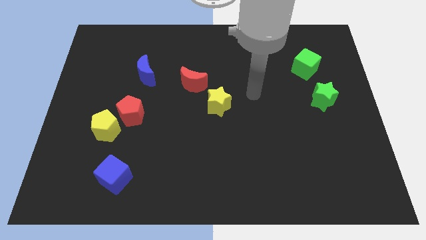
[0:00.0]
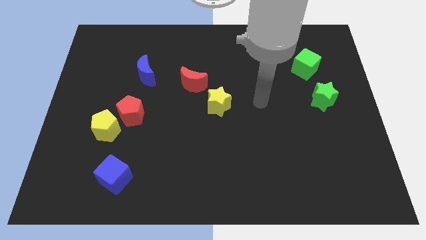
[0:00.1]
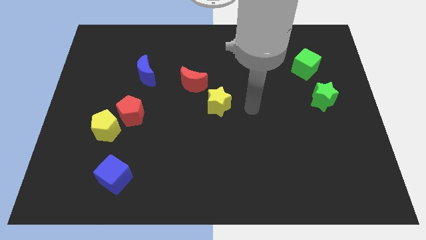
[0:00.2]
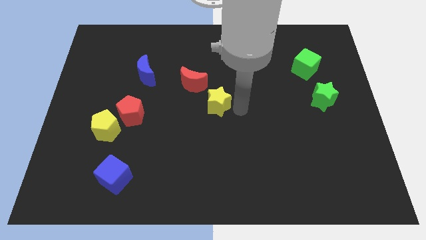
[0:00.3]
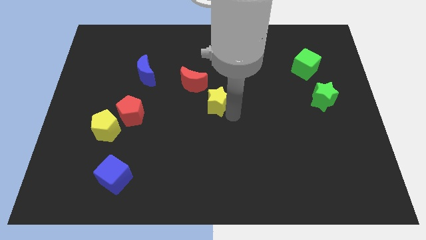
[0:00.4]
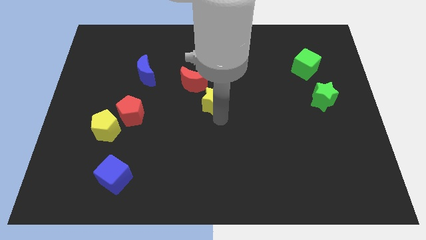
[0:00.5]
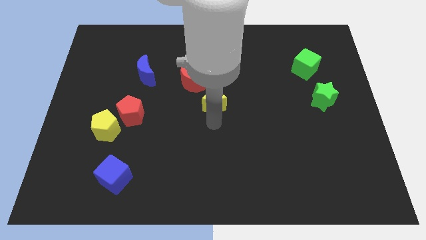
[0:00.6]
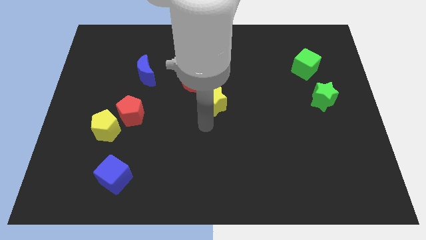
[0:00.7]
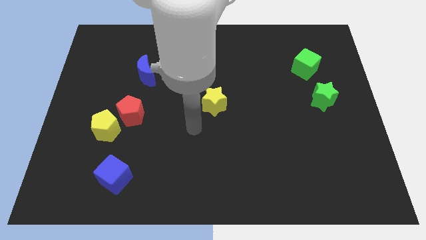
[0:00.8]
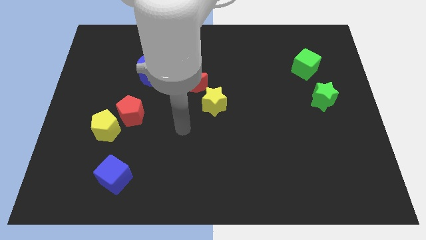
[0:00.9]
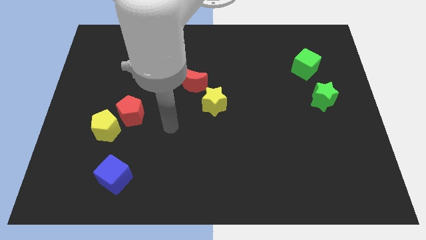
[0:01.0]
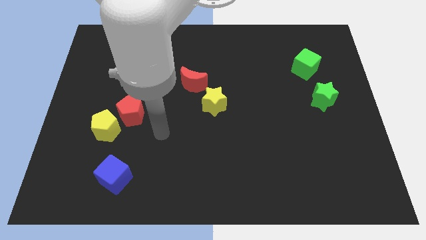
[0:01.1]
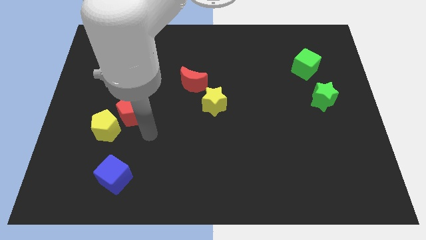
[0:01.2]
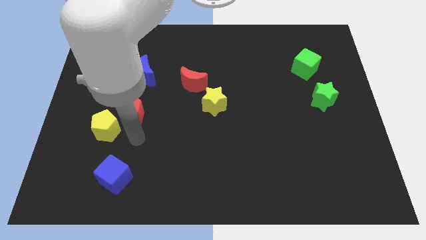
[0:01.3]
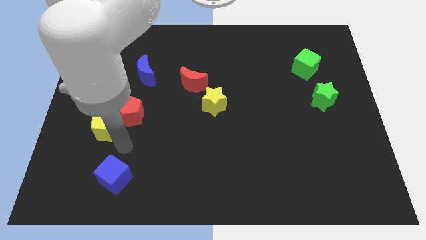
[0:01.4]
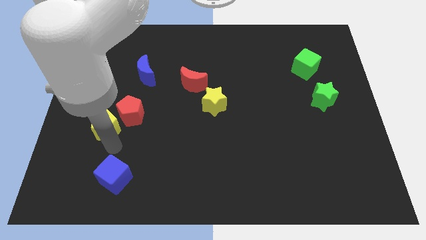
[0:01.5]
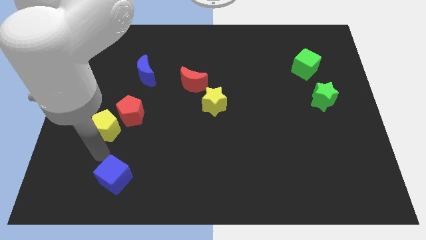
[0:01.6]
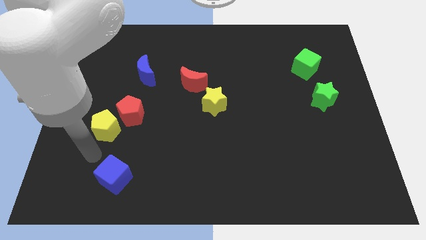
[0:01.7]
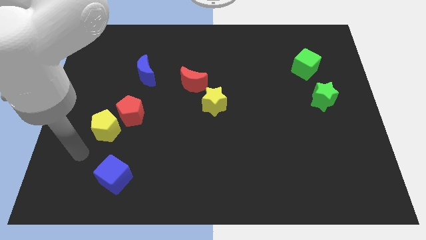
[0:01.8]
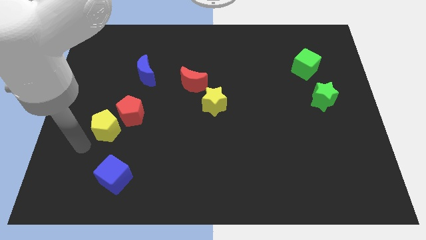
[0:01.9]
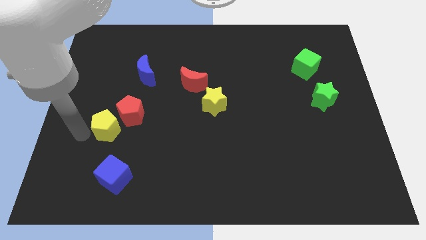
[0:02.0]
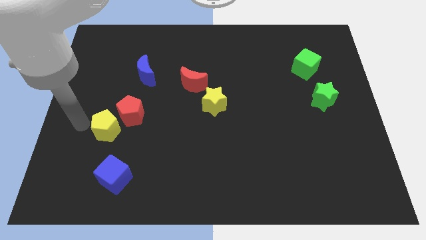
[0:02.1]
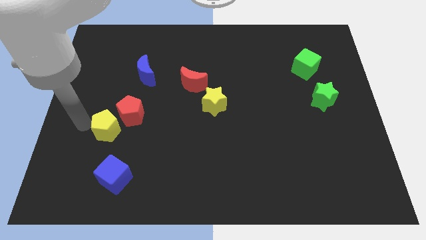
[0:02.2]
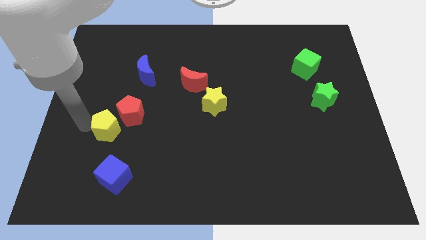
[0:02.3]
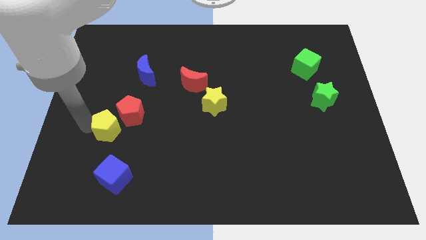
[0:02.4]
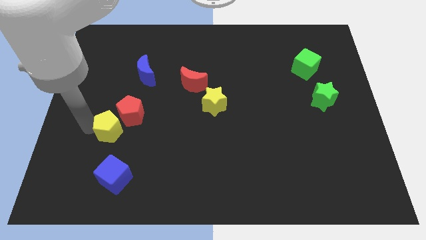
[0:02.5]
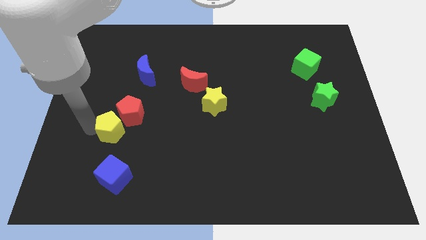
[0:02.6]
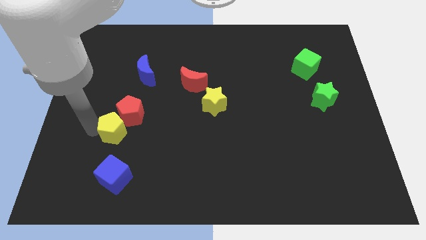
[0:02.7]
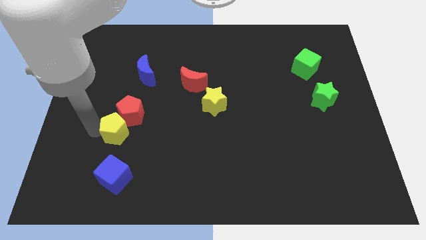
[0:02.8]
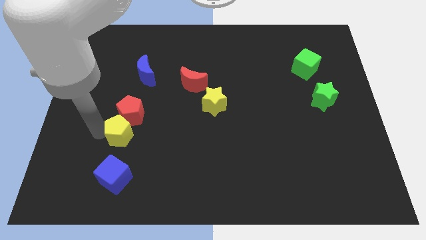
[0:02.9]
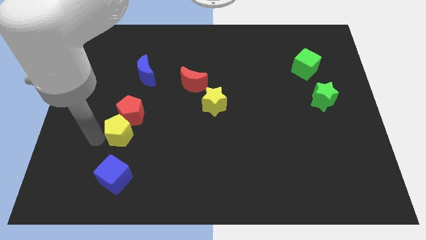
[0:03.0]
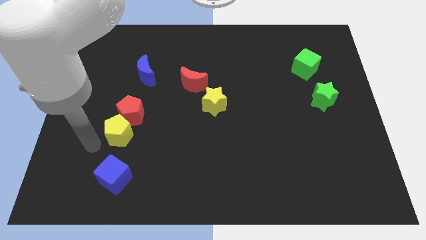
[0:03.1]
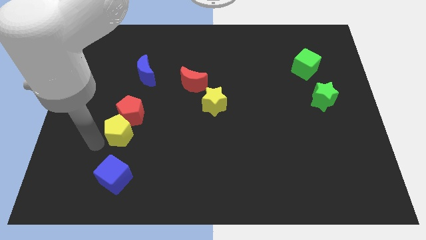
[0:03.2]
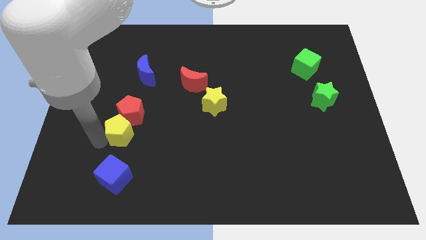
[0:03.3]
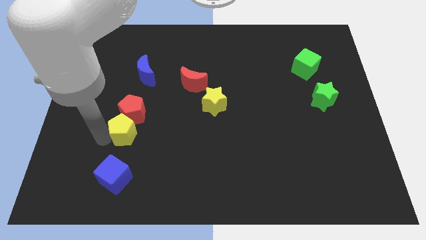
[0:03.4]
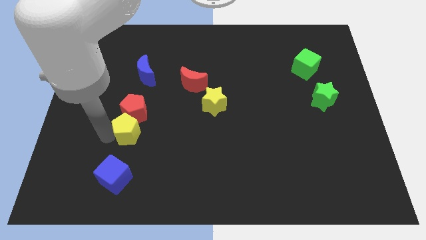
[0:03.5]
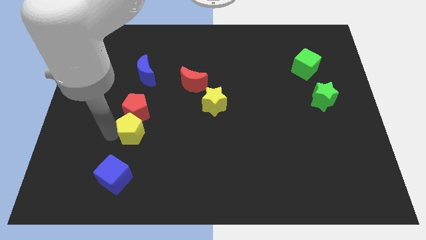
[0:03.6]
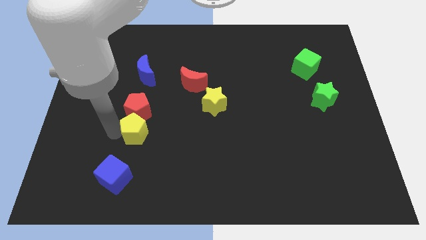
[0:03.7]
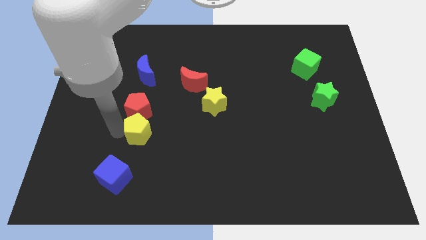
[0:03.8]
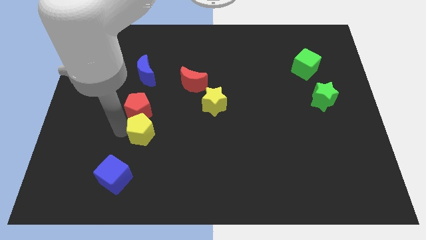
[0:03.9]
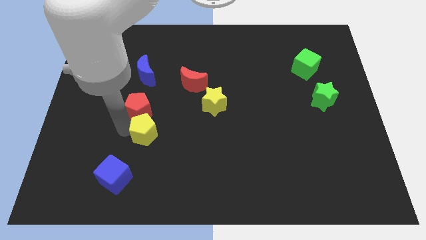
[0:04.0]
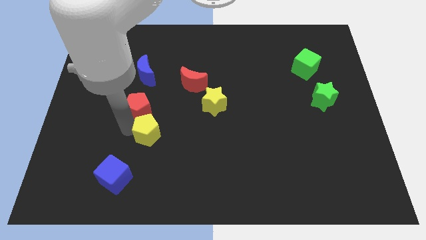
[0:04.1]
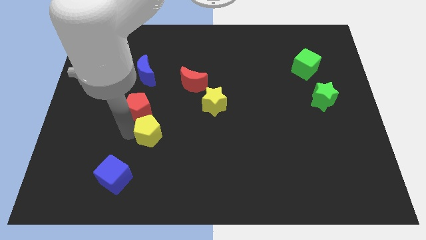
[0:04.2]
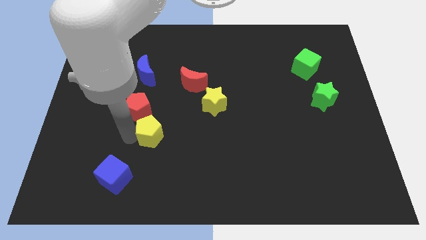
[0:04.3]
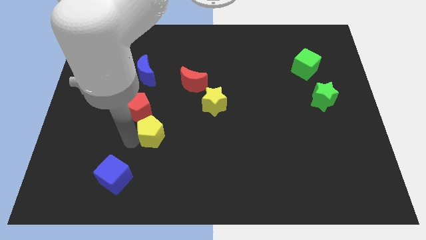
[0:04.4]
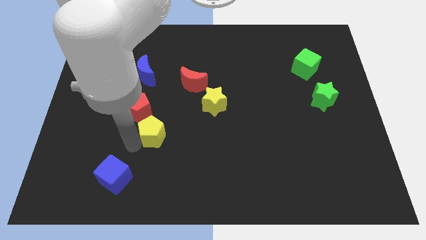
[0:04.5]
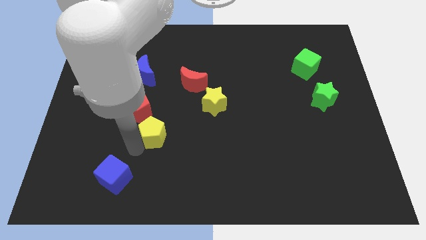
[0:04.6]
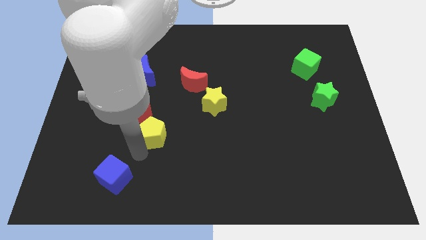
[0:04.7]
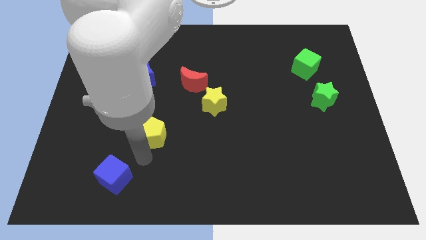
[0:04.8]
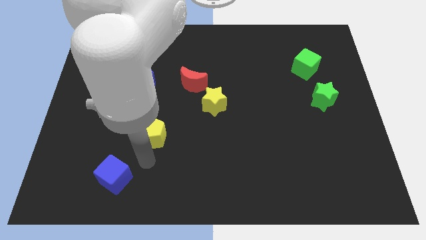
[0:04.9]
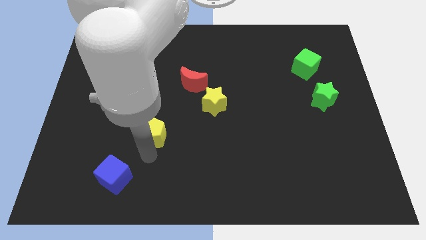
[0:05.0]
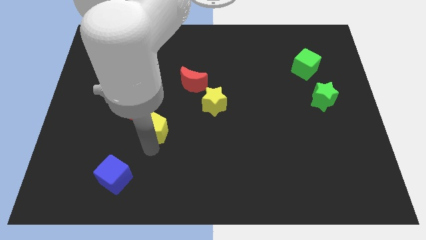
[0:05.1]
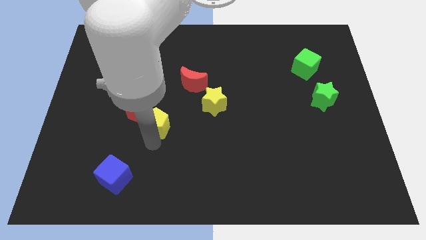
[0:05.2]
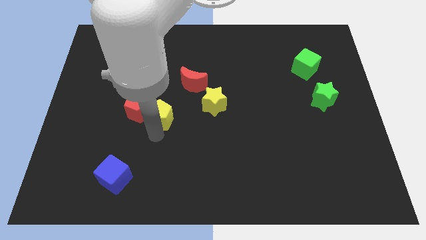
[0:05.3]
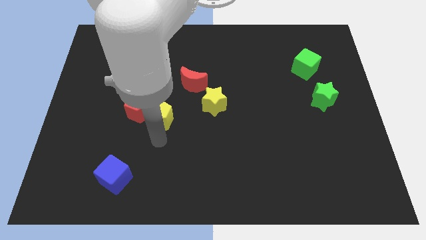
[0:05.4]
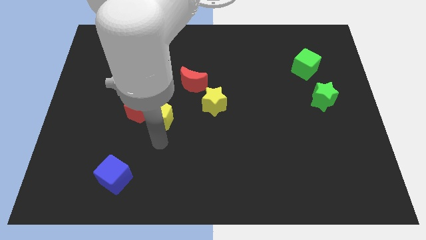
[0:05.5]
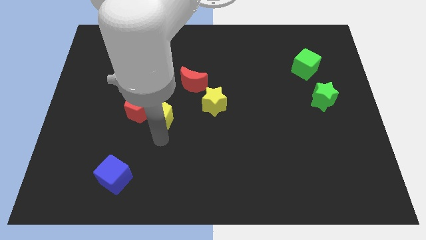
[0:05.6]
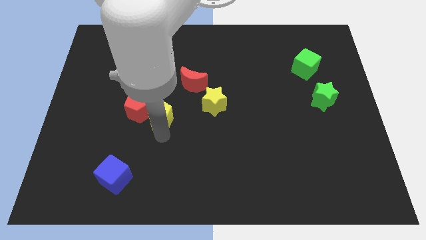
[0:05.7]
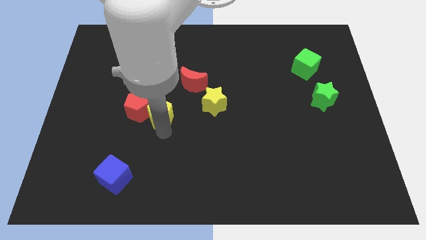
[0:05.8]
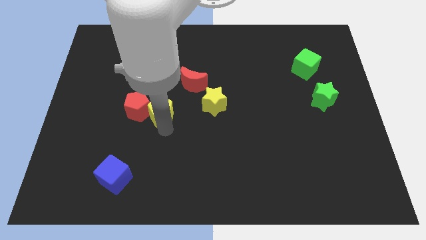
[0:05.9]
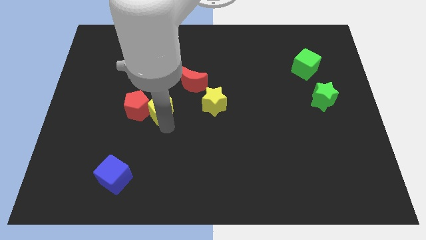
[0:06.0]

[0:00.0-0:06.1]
slide the yellow pentagon to the top right of the red pentagon

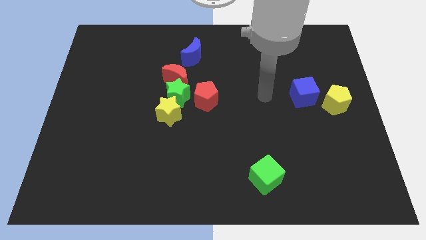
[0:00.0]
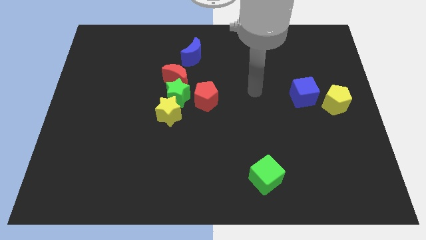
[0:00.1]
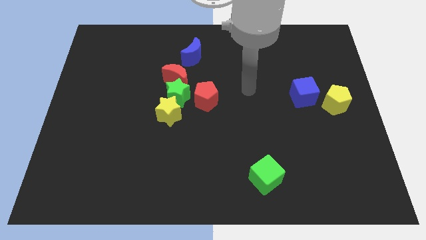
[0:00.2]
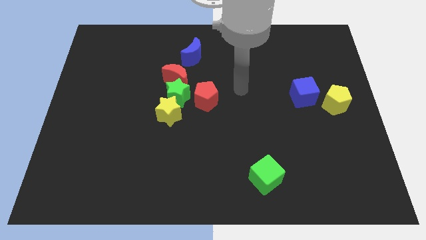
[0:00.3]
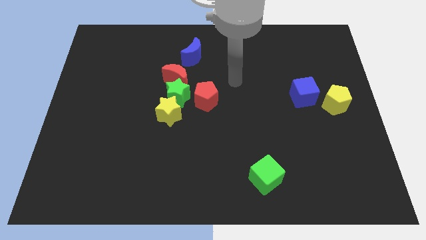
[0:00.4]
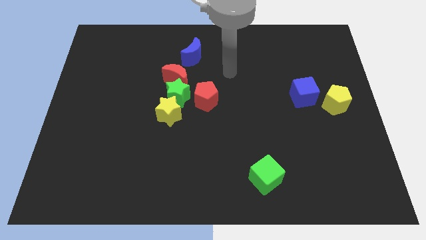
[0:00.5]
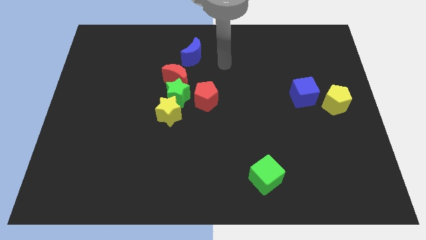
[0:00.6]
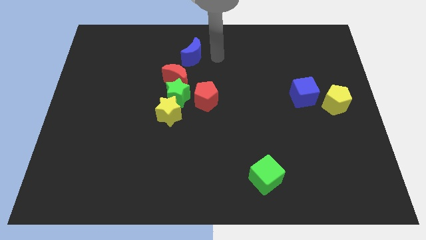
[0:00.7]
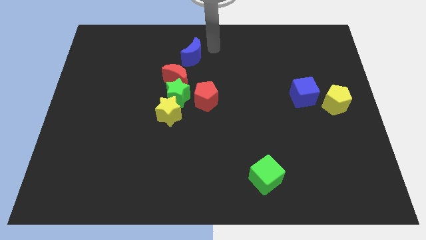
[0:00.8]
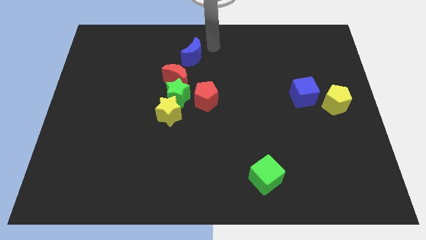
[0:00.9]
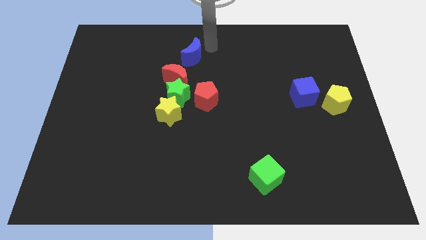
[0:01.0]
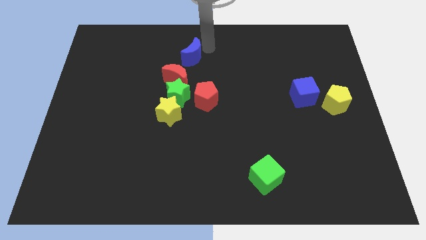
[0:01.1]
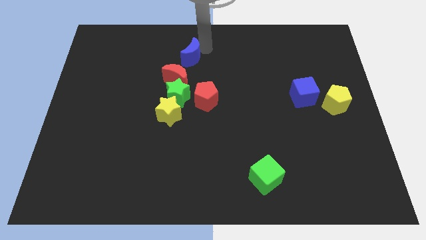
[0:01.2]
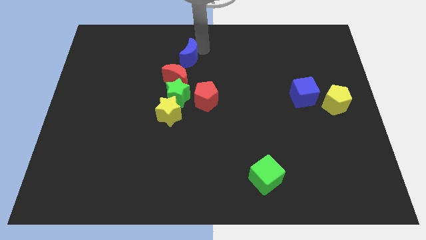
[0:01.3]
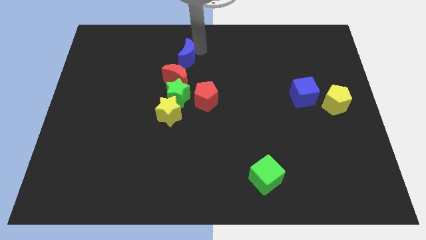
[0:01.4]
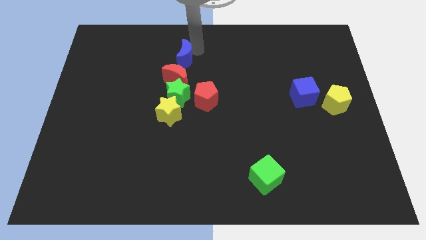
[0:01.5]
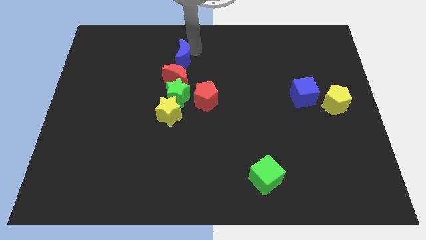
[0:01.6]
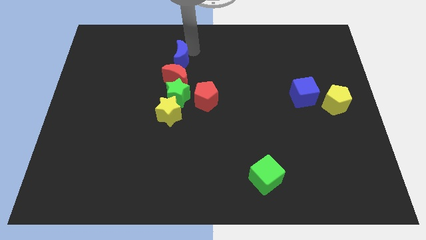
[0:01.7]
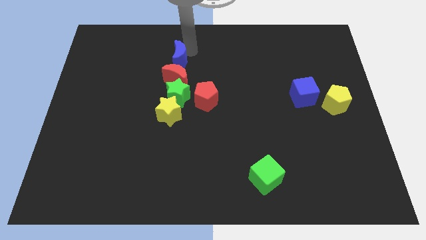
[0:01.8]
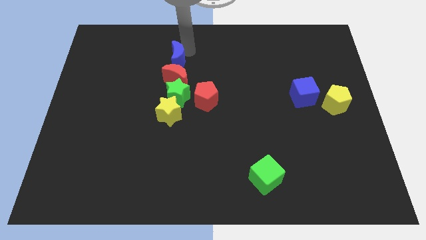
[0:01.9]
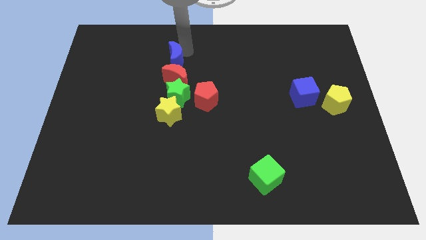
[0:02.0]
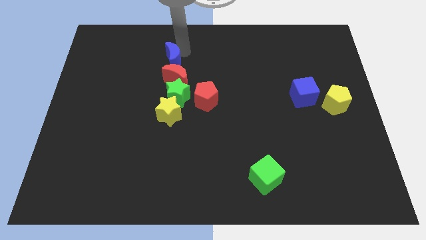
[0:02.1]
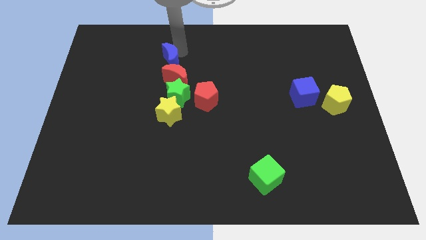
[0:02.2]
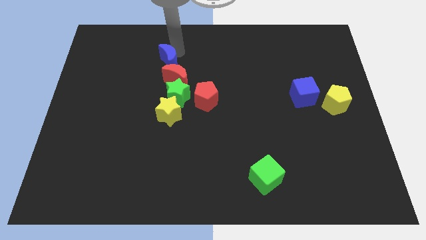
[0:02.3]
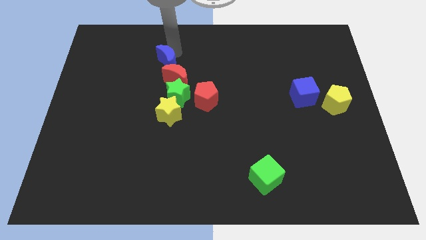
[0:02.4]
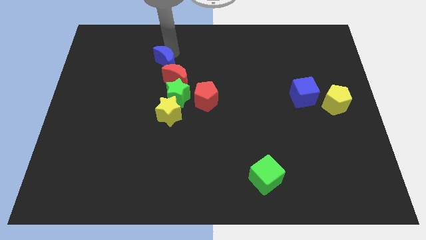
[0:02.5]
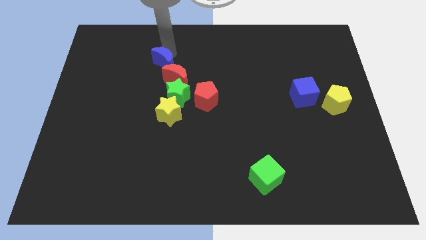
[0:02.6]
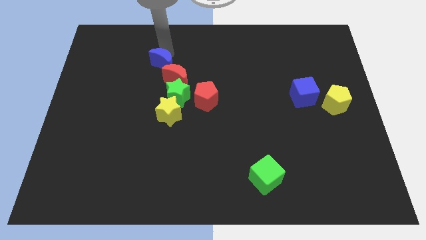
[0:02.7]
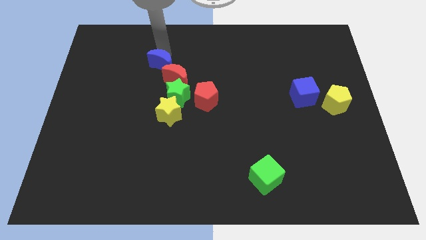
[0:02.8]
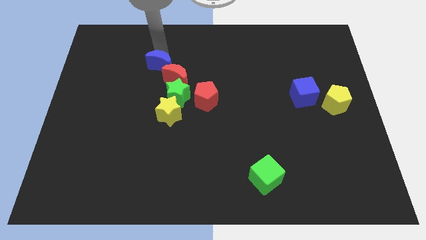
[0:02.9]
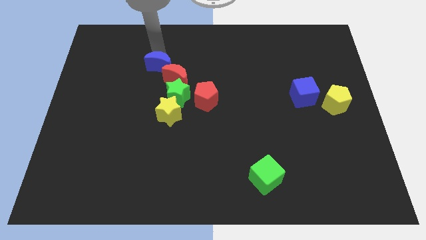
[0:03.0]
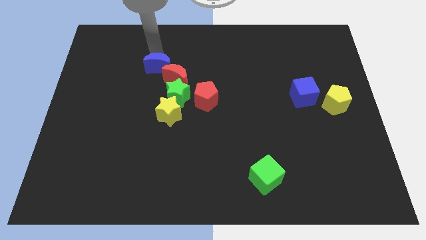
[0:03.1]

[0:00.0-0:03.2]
slide the blue moon to the top side of the yellow star
